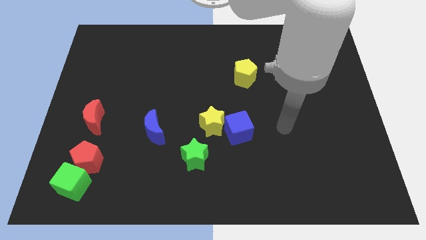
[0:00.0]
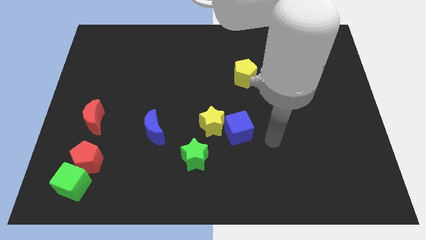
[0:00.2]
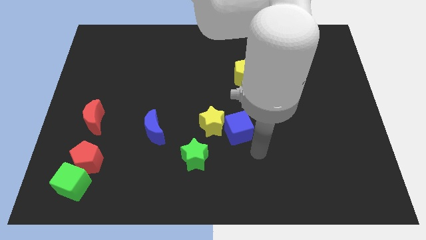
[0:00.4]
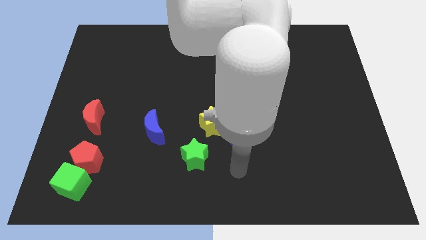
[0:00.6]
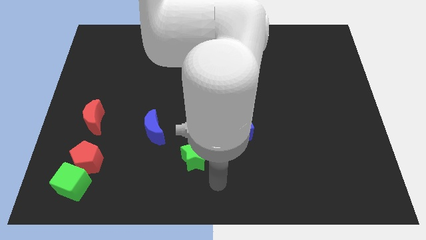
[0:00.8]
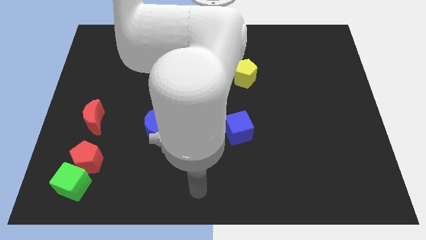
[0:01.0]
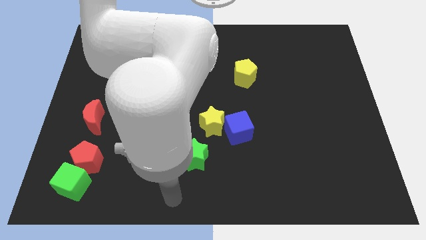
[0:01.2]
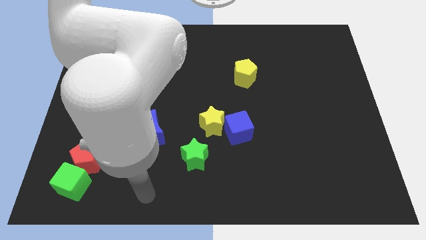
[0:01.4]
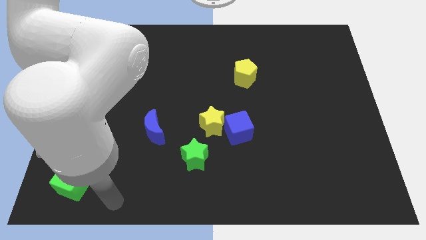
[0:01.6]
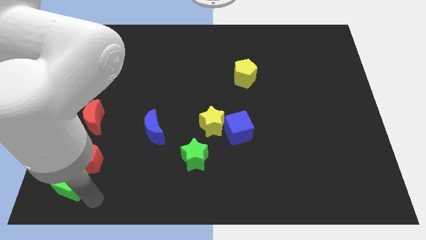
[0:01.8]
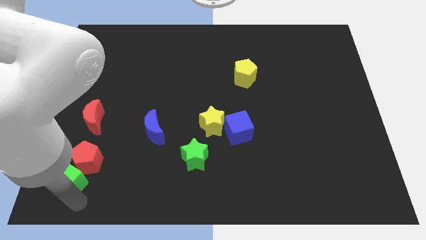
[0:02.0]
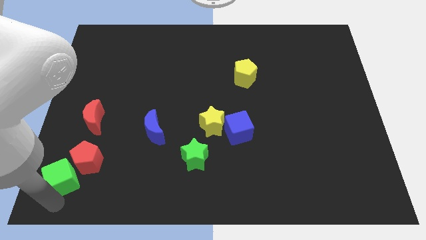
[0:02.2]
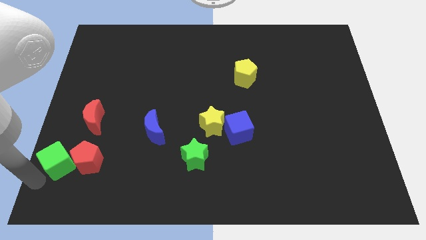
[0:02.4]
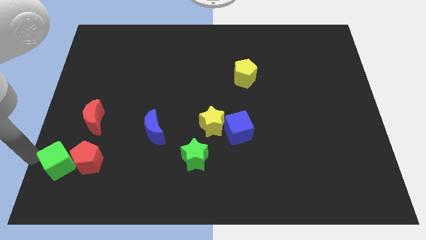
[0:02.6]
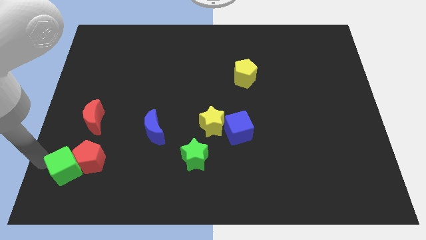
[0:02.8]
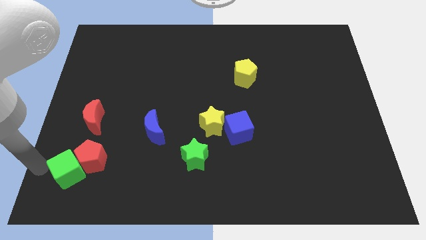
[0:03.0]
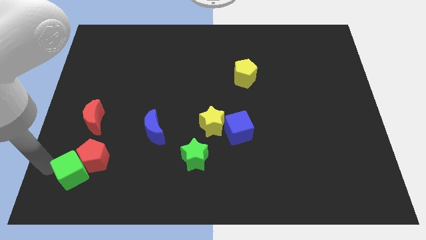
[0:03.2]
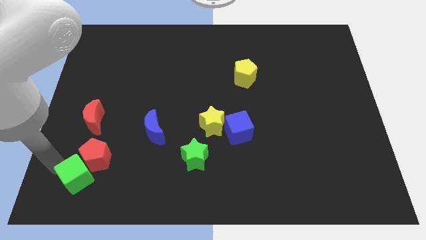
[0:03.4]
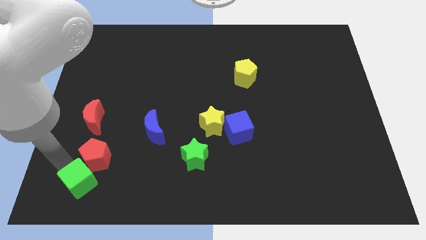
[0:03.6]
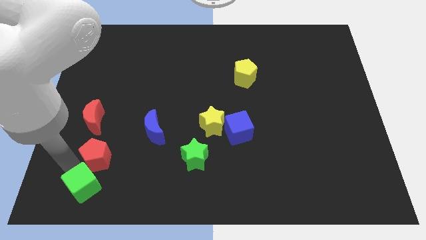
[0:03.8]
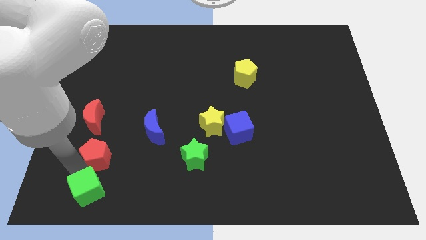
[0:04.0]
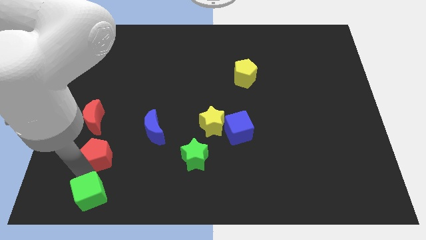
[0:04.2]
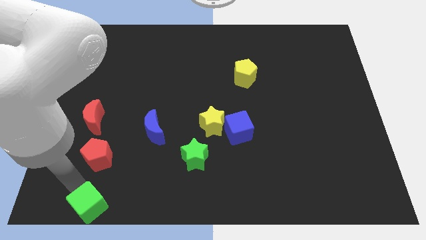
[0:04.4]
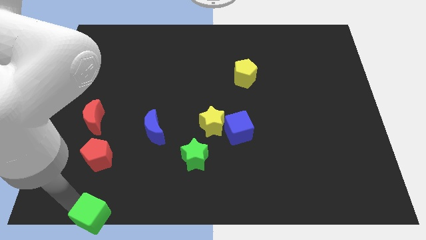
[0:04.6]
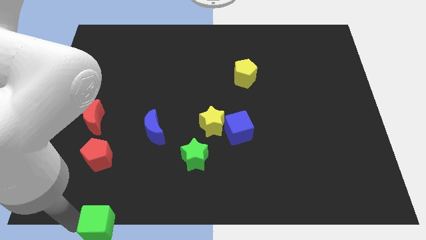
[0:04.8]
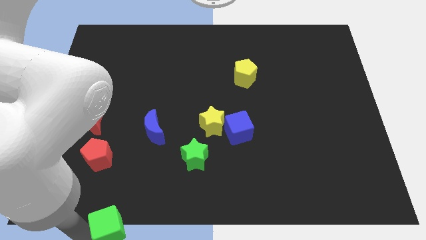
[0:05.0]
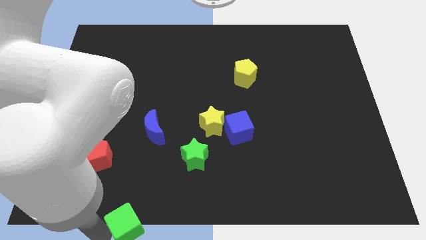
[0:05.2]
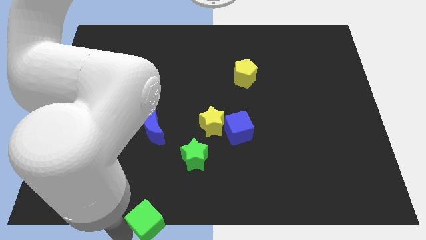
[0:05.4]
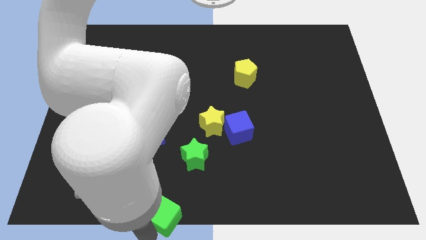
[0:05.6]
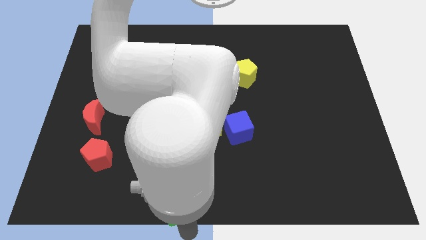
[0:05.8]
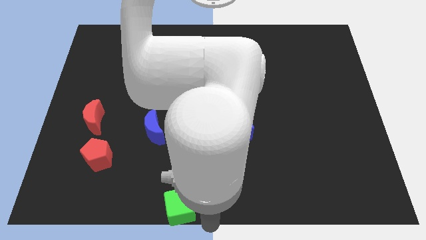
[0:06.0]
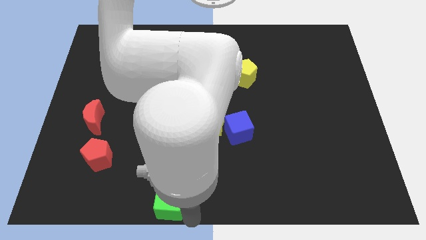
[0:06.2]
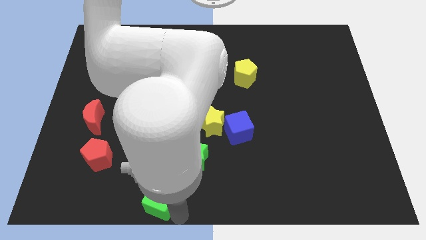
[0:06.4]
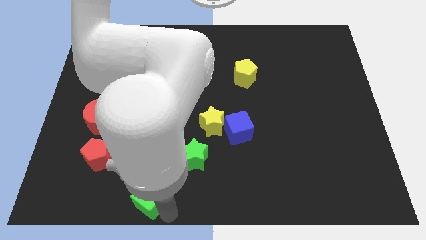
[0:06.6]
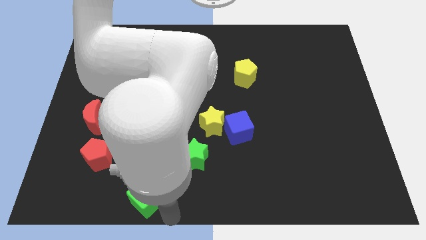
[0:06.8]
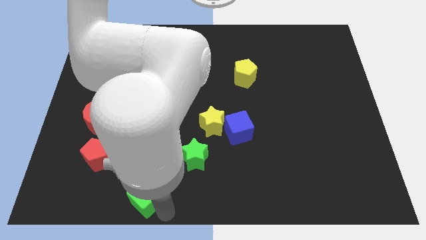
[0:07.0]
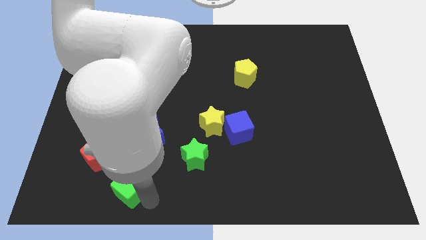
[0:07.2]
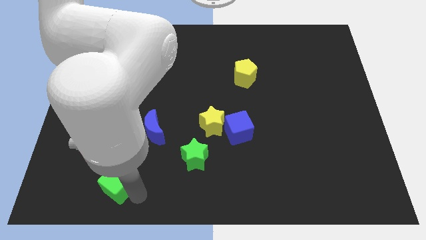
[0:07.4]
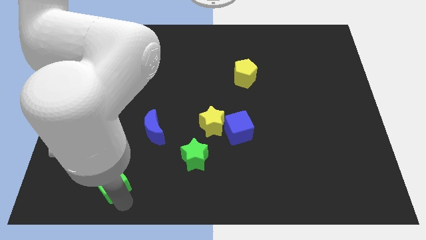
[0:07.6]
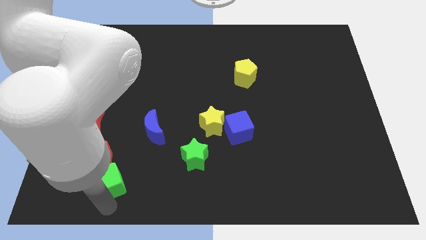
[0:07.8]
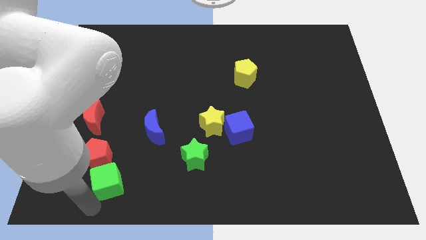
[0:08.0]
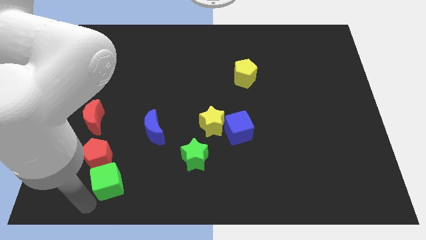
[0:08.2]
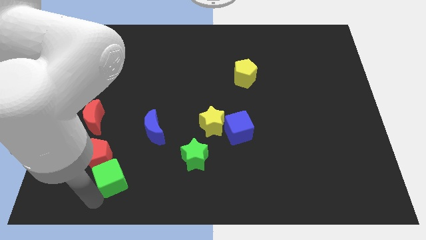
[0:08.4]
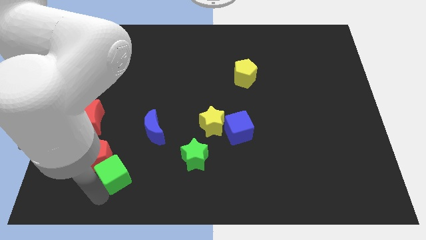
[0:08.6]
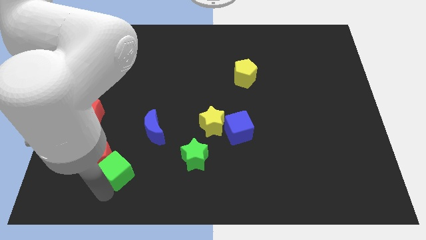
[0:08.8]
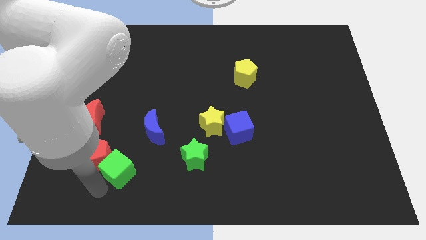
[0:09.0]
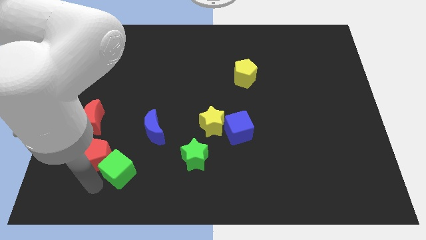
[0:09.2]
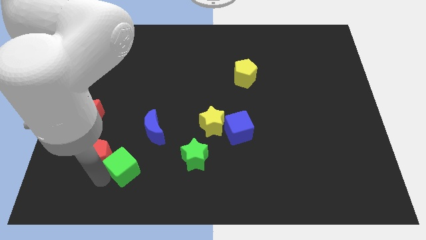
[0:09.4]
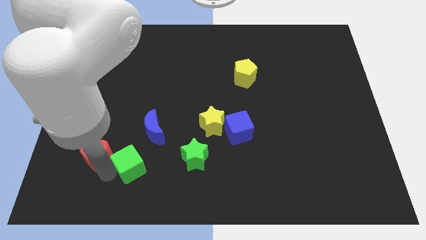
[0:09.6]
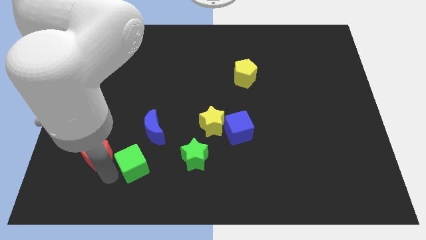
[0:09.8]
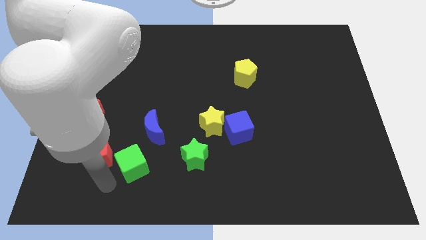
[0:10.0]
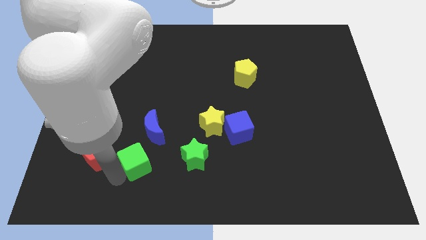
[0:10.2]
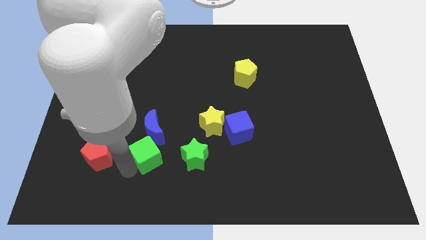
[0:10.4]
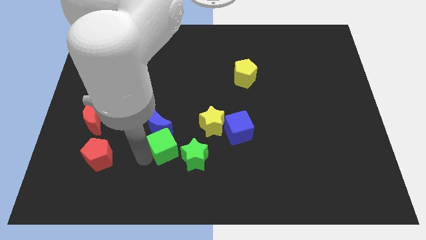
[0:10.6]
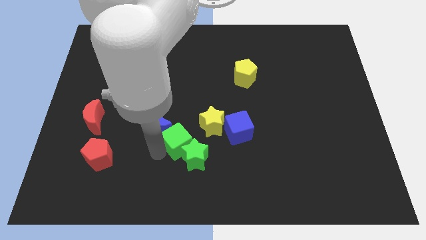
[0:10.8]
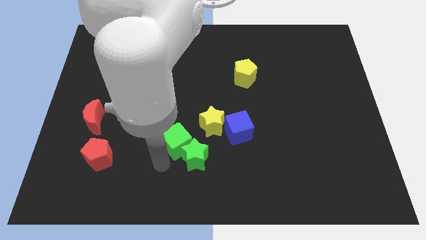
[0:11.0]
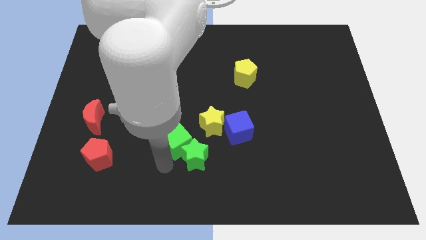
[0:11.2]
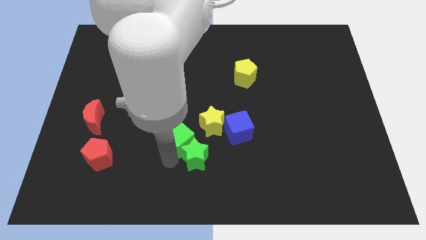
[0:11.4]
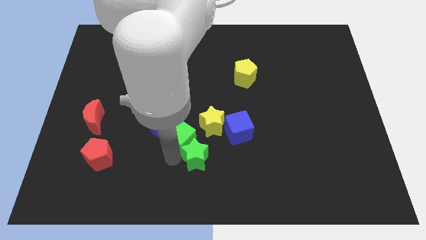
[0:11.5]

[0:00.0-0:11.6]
push the green cube up and then right

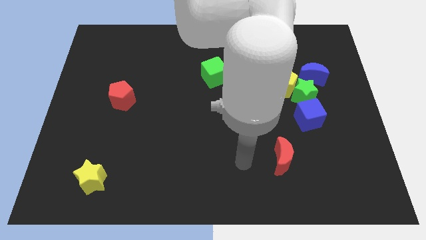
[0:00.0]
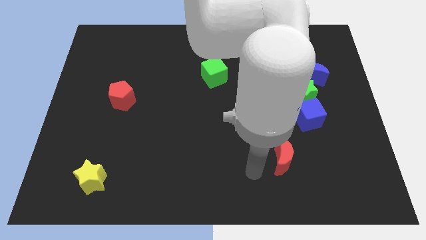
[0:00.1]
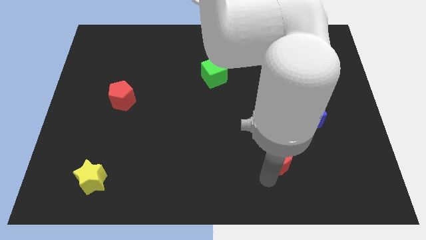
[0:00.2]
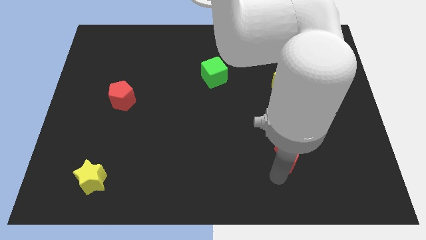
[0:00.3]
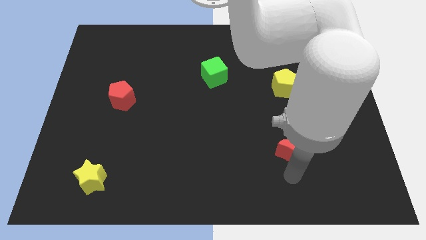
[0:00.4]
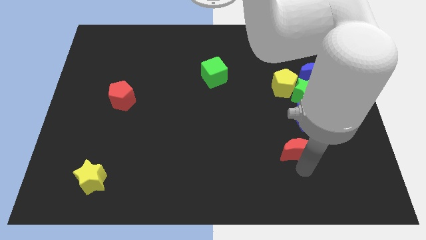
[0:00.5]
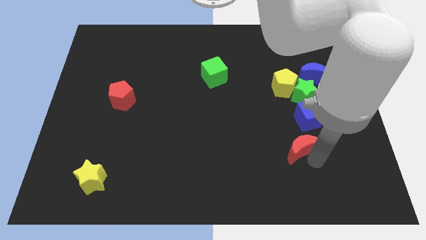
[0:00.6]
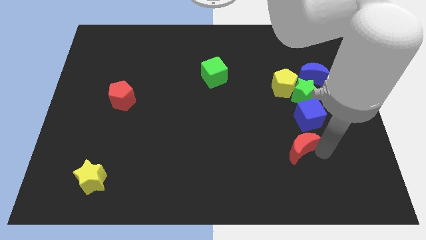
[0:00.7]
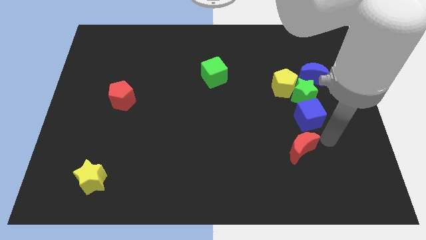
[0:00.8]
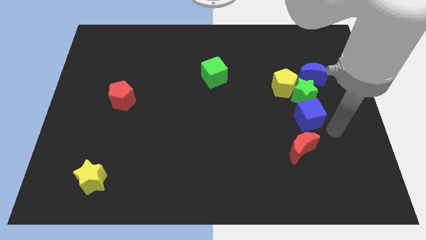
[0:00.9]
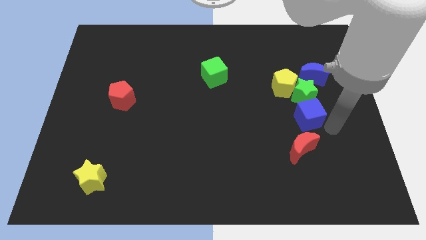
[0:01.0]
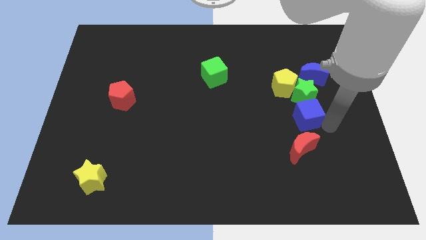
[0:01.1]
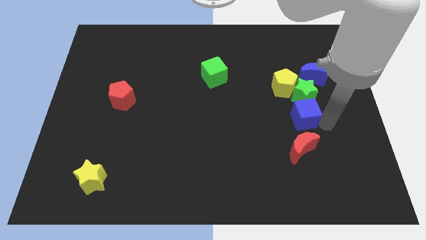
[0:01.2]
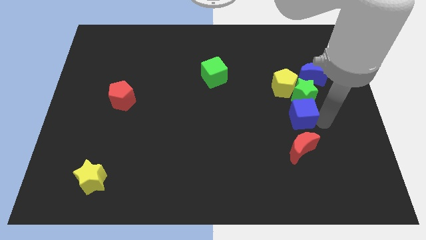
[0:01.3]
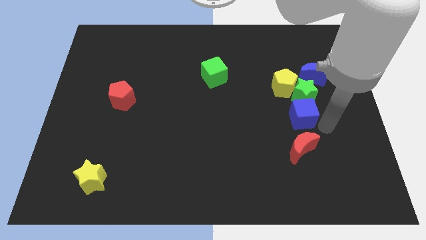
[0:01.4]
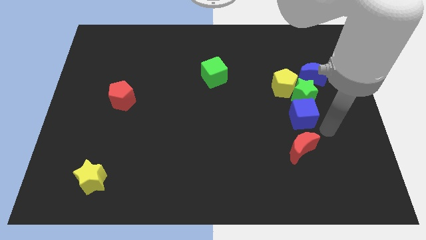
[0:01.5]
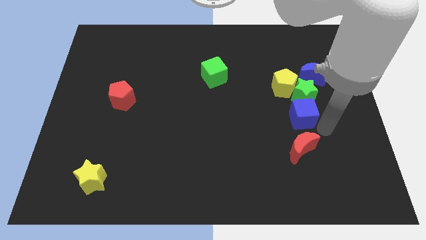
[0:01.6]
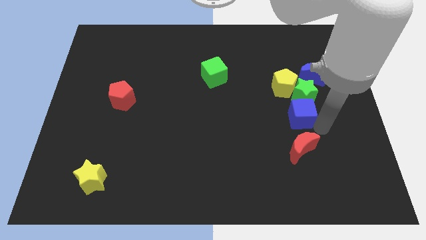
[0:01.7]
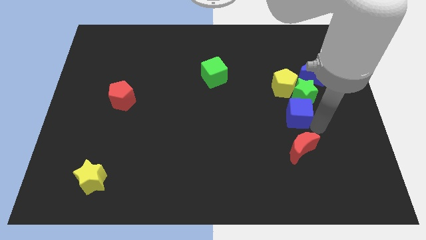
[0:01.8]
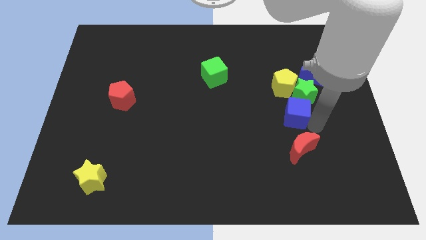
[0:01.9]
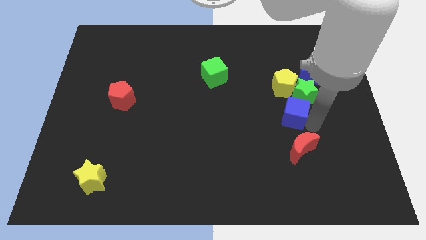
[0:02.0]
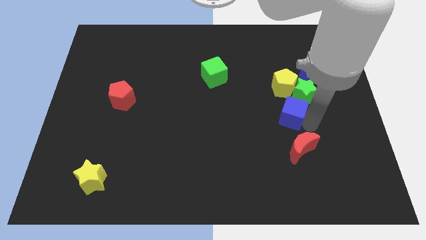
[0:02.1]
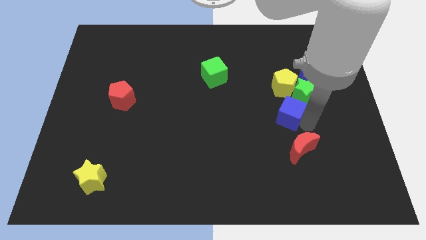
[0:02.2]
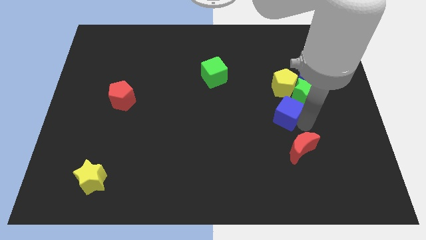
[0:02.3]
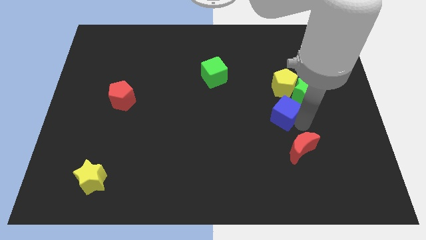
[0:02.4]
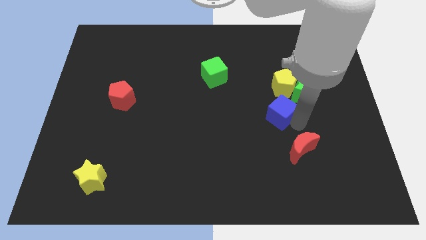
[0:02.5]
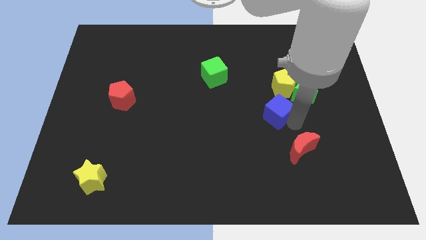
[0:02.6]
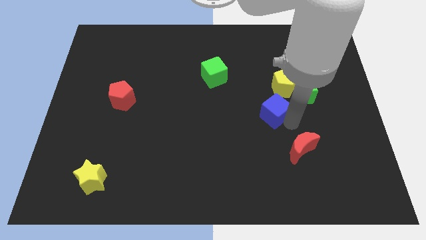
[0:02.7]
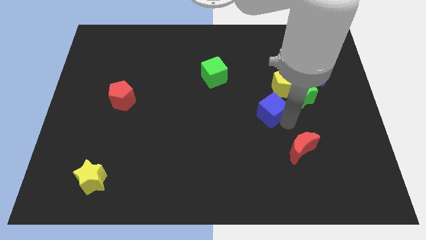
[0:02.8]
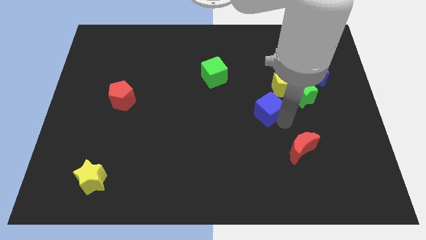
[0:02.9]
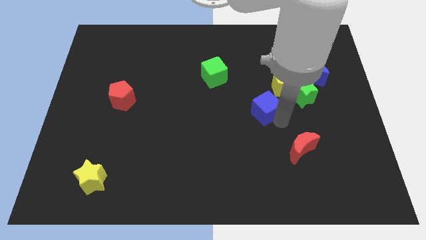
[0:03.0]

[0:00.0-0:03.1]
slide the blue cube a little diagonally upwards and to the left
